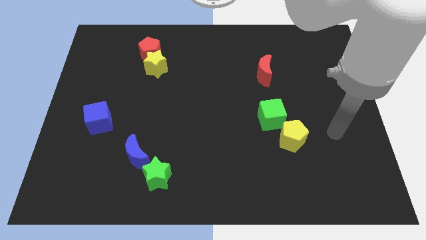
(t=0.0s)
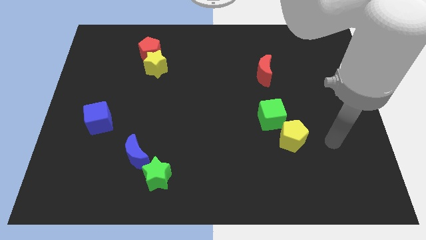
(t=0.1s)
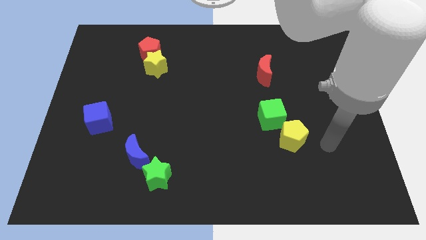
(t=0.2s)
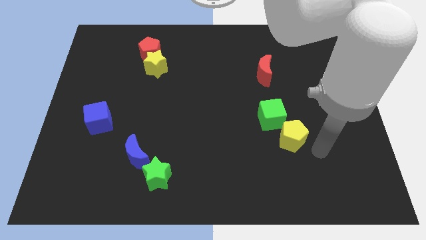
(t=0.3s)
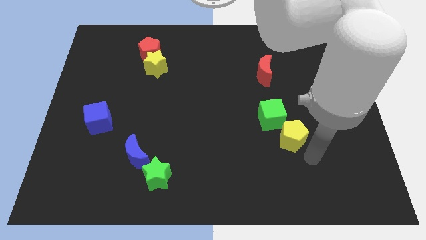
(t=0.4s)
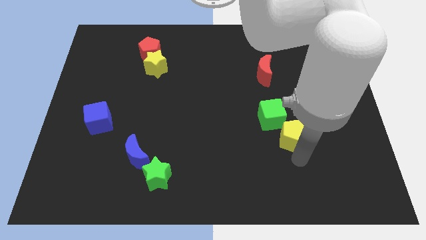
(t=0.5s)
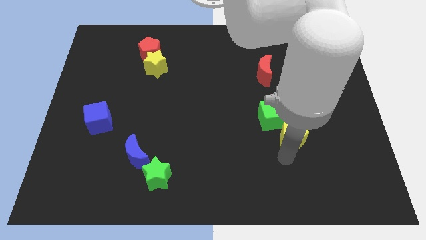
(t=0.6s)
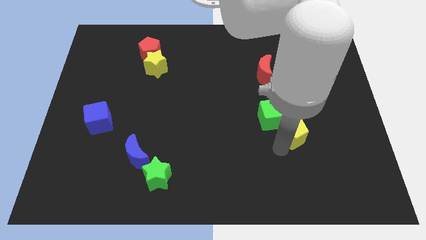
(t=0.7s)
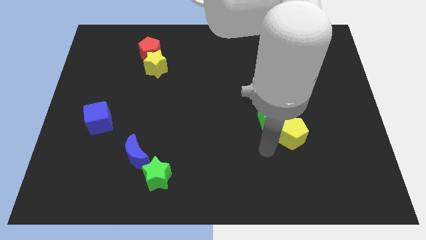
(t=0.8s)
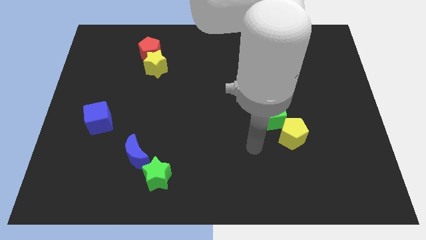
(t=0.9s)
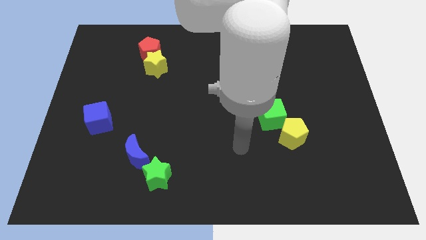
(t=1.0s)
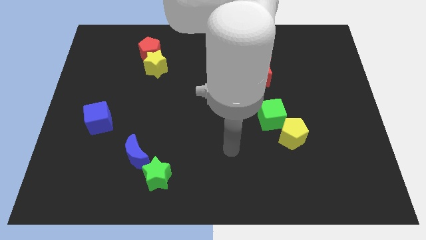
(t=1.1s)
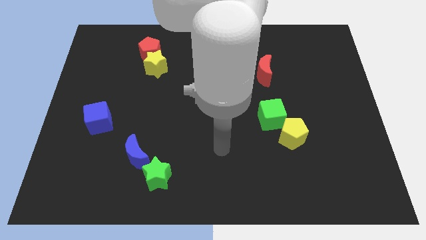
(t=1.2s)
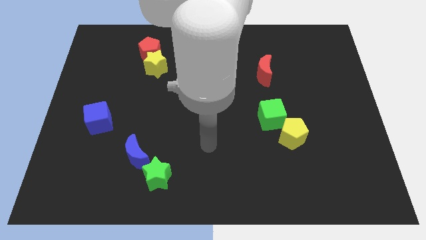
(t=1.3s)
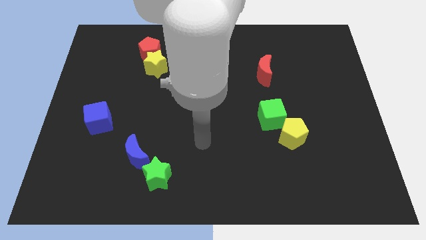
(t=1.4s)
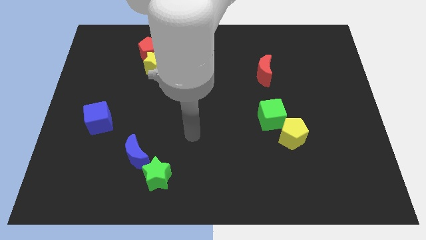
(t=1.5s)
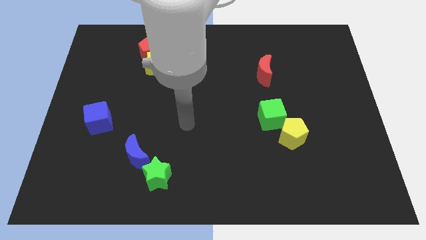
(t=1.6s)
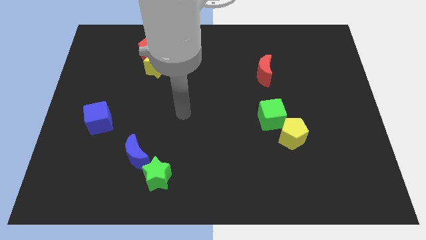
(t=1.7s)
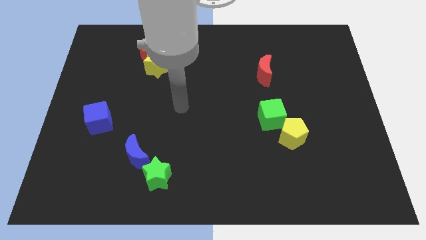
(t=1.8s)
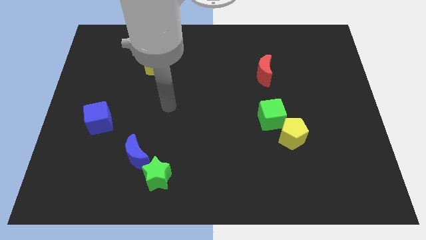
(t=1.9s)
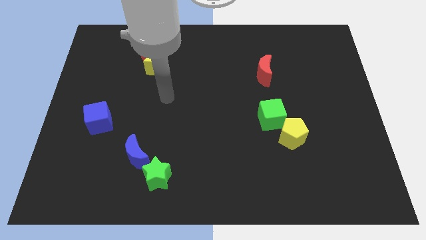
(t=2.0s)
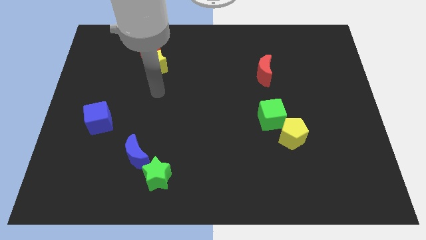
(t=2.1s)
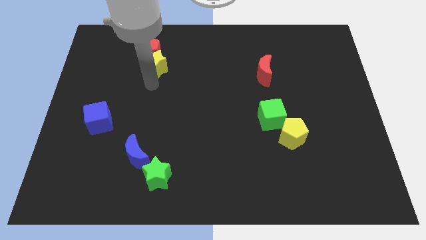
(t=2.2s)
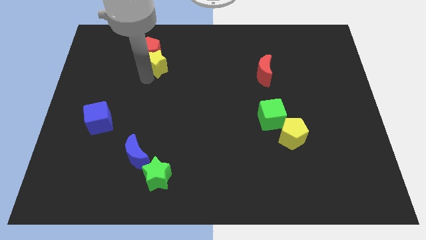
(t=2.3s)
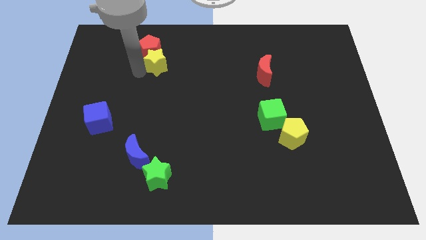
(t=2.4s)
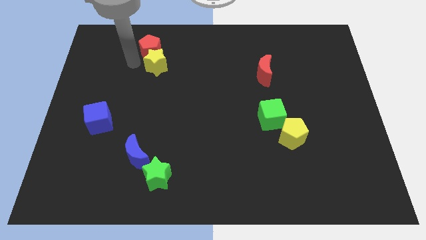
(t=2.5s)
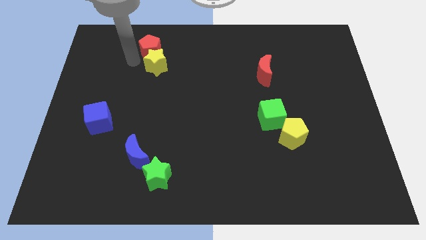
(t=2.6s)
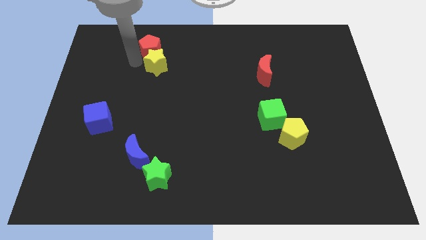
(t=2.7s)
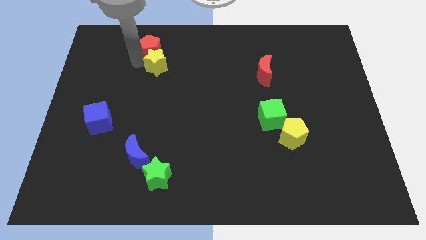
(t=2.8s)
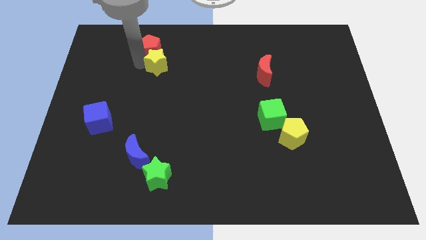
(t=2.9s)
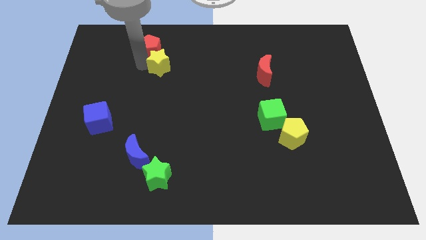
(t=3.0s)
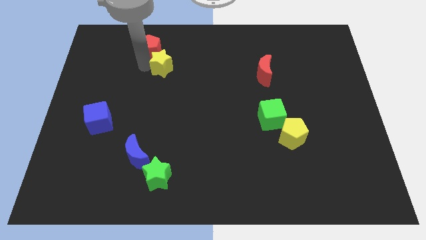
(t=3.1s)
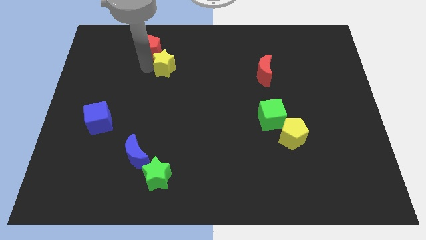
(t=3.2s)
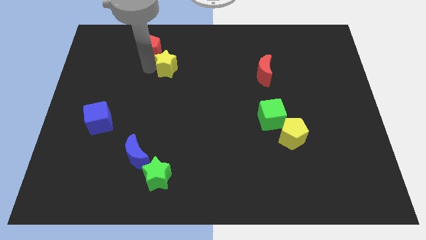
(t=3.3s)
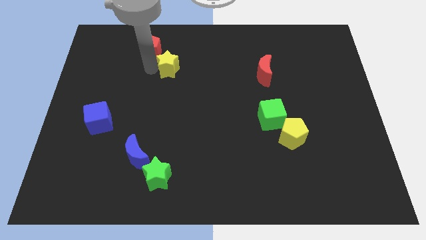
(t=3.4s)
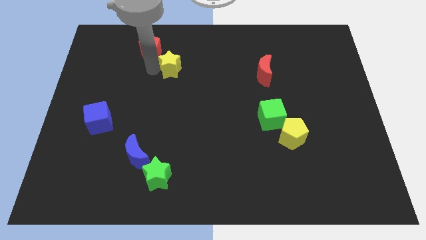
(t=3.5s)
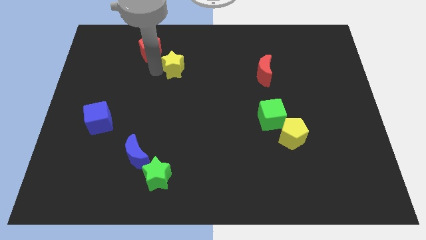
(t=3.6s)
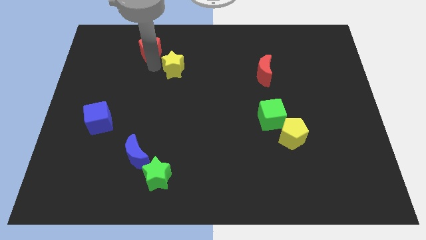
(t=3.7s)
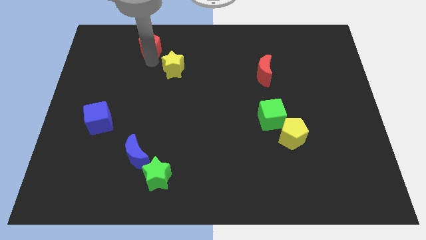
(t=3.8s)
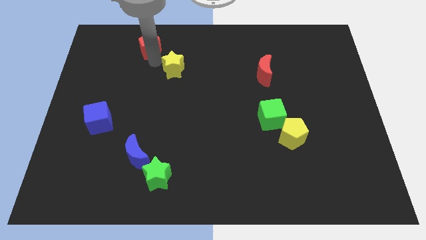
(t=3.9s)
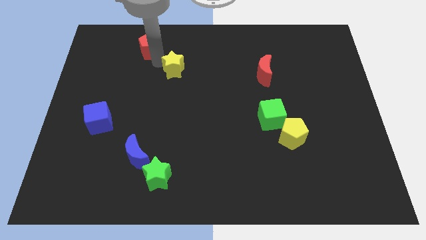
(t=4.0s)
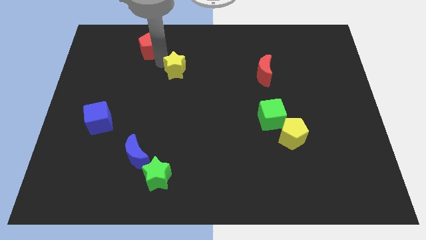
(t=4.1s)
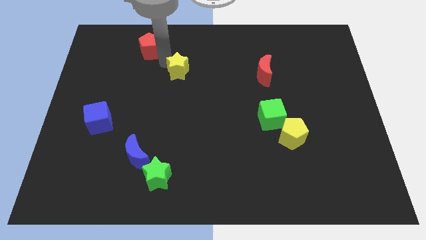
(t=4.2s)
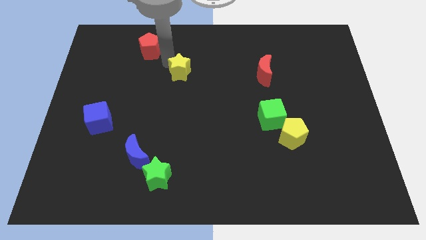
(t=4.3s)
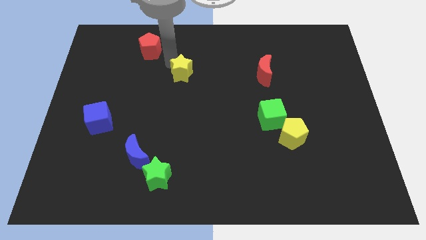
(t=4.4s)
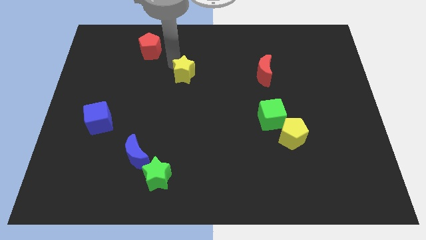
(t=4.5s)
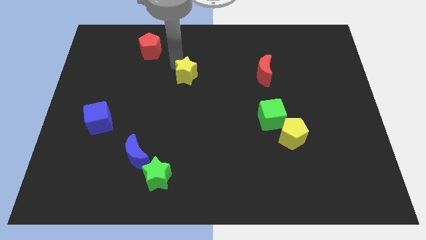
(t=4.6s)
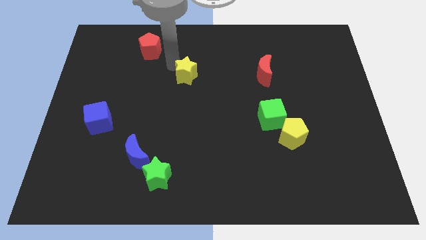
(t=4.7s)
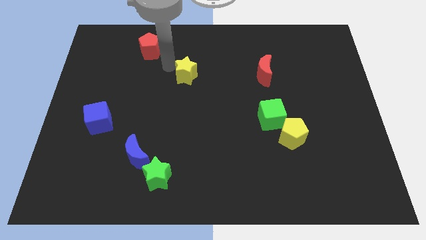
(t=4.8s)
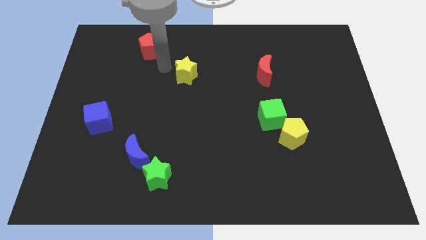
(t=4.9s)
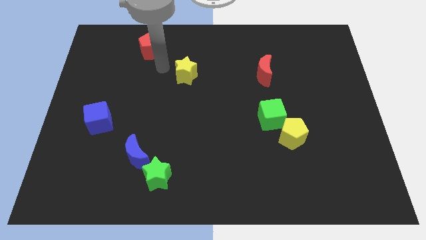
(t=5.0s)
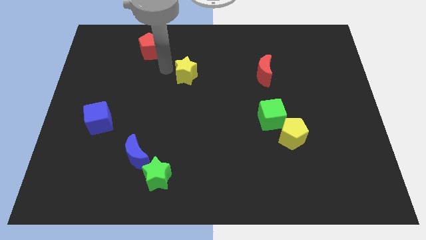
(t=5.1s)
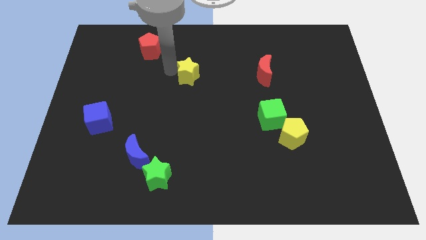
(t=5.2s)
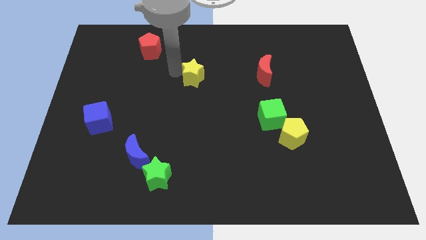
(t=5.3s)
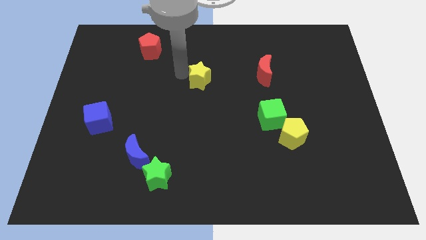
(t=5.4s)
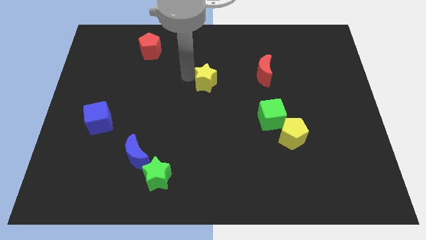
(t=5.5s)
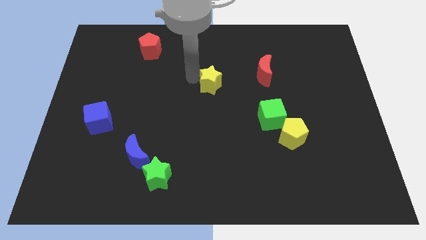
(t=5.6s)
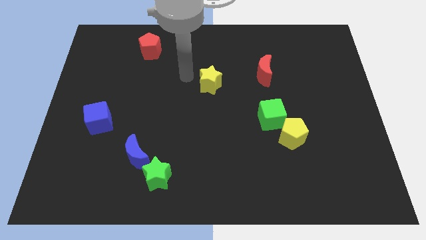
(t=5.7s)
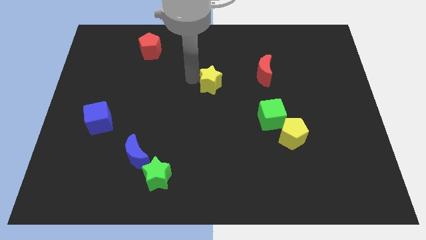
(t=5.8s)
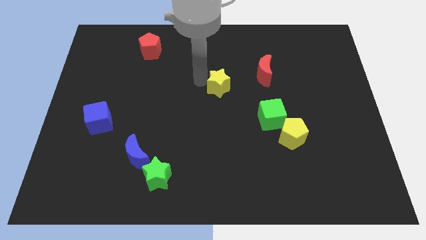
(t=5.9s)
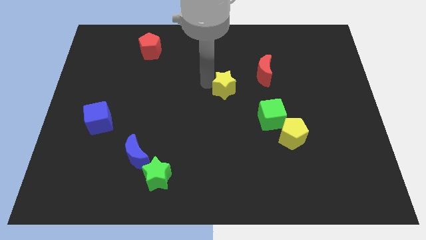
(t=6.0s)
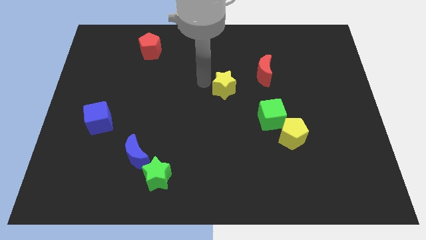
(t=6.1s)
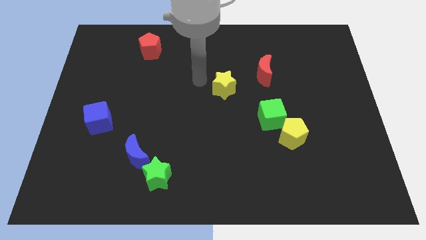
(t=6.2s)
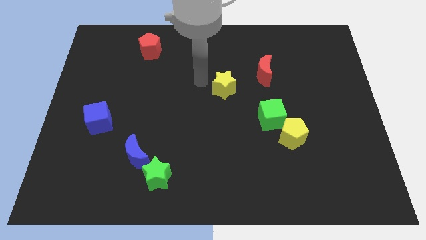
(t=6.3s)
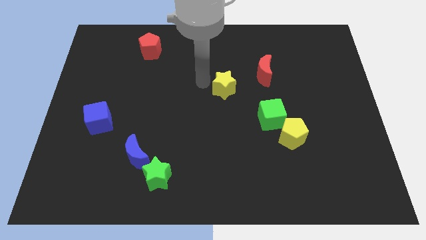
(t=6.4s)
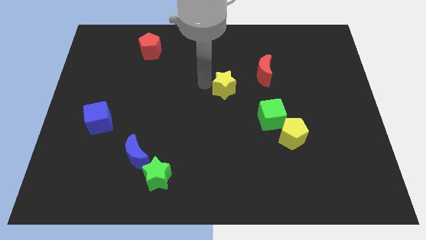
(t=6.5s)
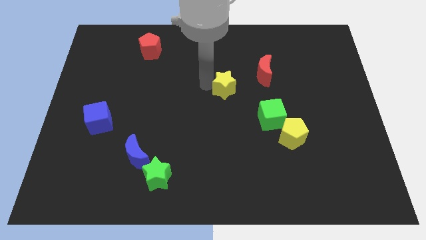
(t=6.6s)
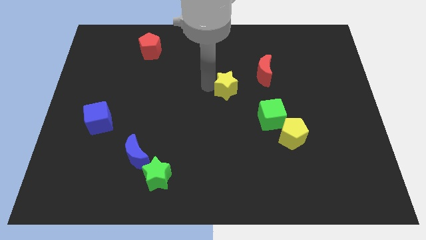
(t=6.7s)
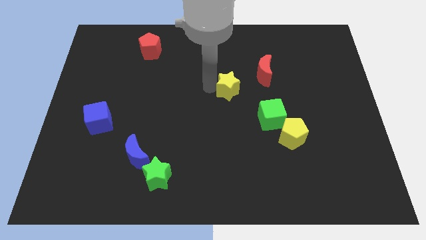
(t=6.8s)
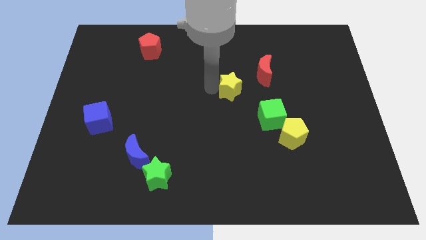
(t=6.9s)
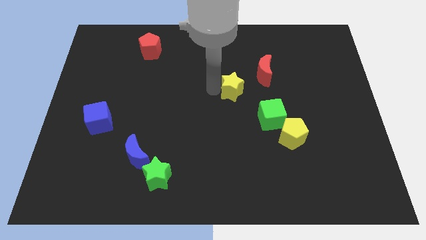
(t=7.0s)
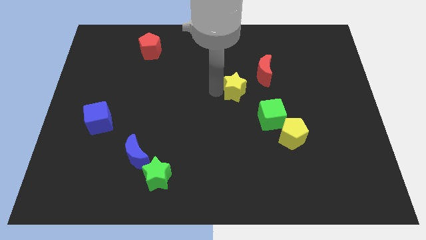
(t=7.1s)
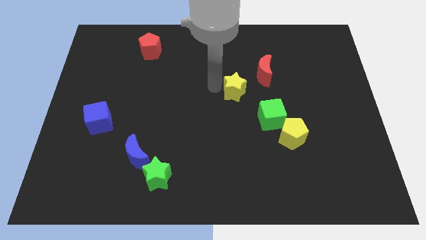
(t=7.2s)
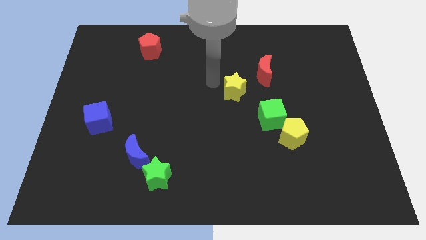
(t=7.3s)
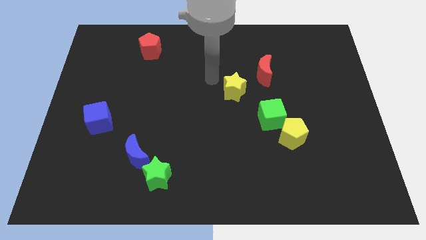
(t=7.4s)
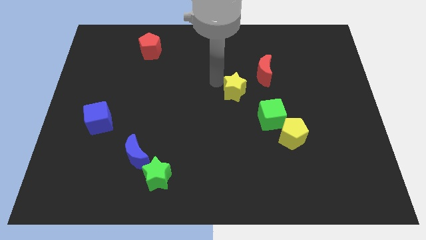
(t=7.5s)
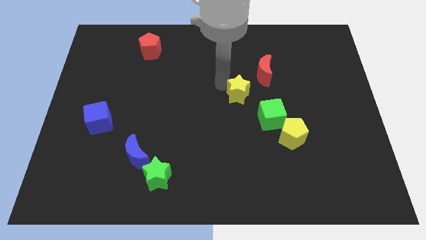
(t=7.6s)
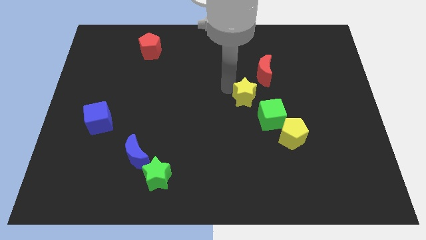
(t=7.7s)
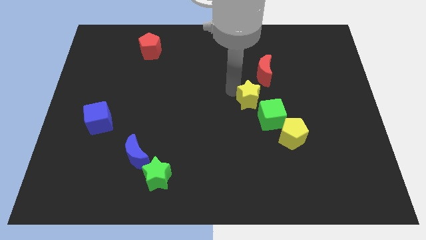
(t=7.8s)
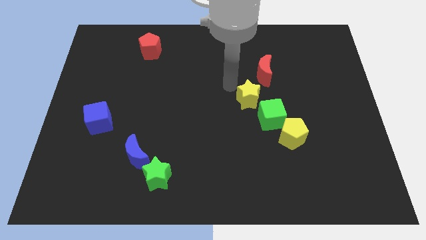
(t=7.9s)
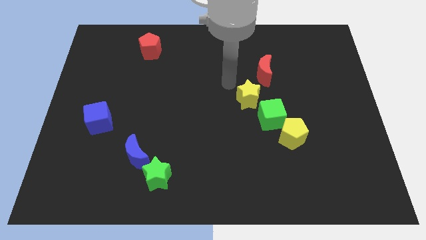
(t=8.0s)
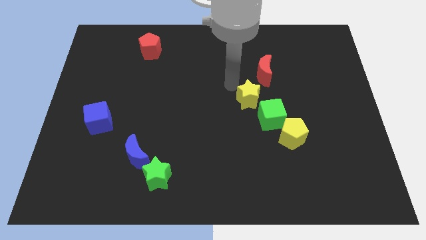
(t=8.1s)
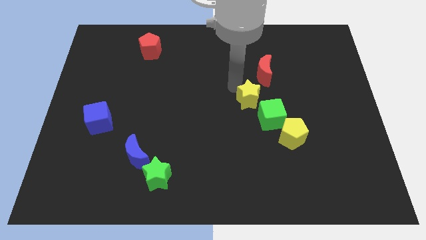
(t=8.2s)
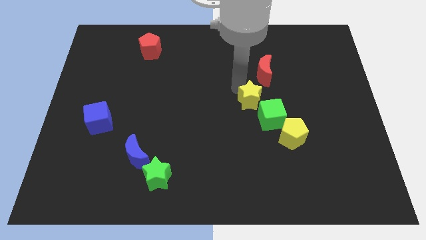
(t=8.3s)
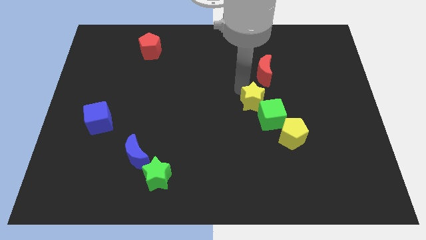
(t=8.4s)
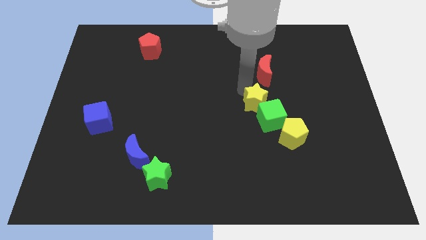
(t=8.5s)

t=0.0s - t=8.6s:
move the yellow star close to the green cube
